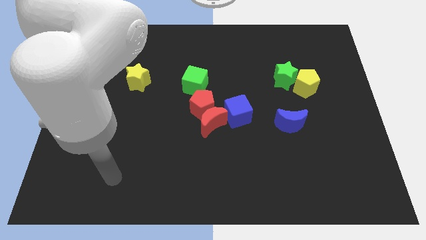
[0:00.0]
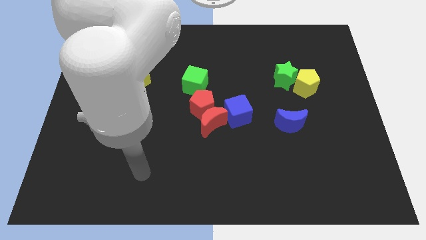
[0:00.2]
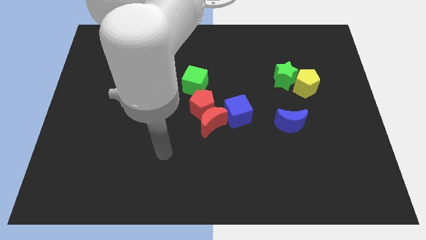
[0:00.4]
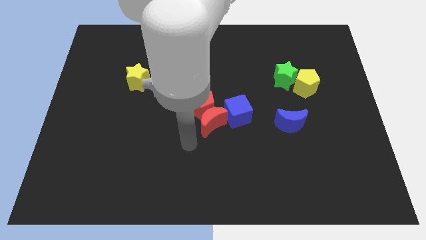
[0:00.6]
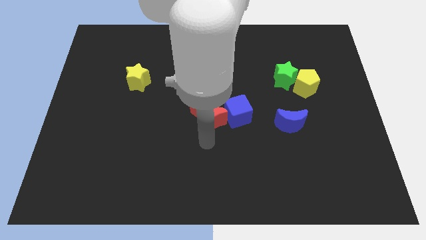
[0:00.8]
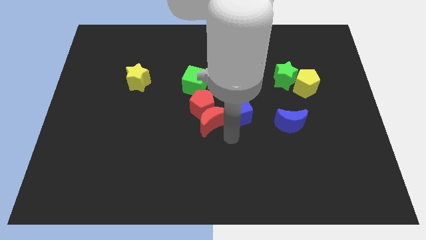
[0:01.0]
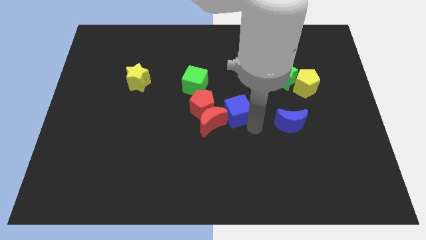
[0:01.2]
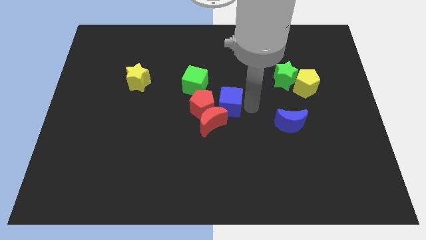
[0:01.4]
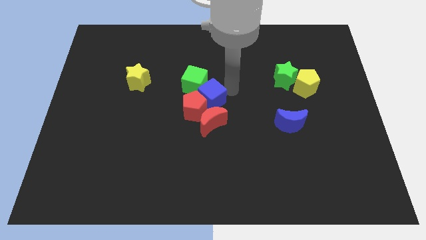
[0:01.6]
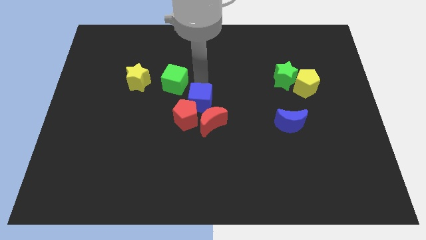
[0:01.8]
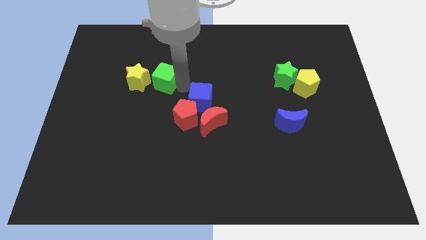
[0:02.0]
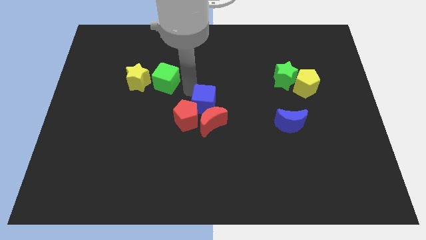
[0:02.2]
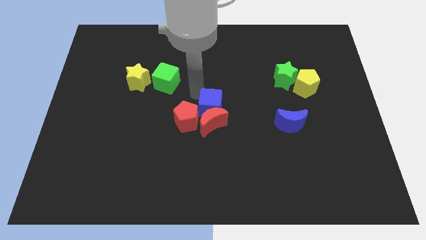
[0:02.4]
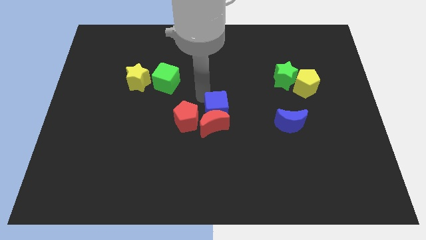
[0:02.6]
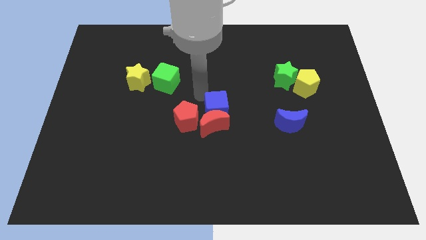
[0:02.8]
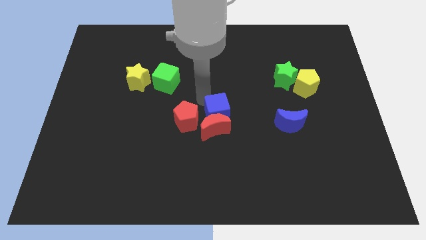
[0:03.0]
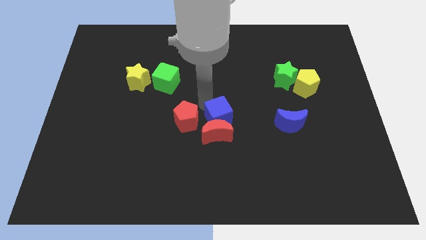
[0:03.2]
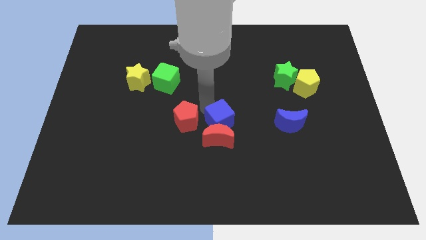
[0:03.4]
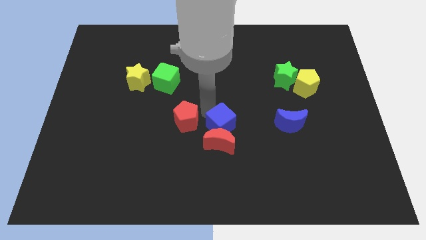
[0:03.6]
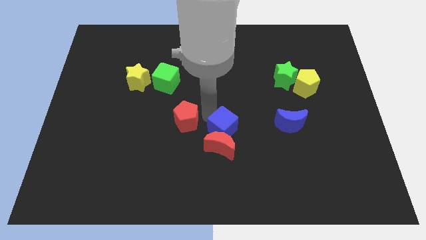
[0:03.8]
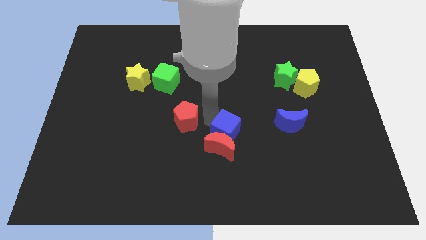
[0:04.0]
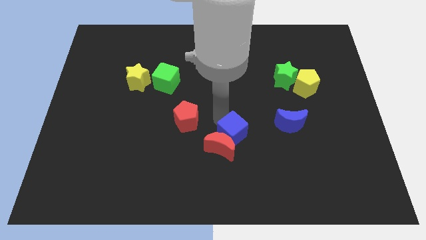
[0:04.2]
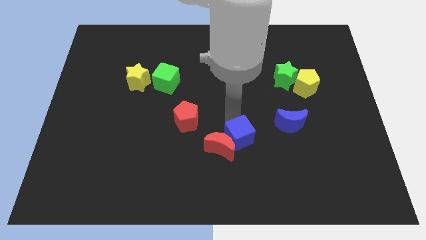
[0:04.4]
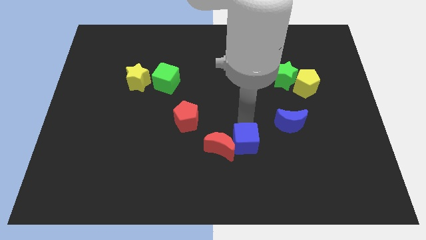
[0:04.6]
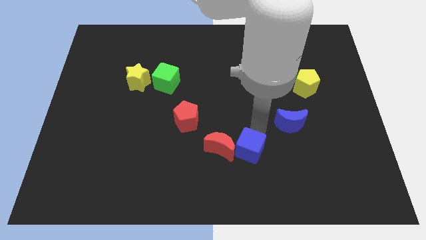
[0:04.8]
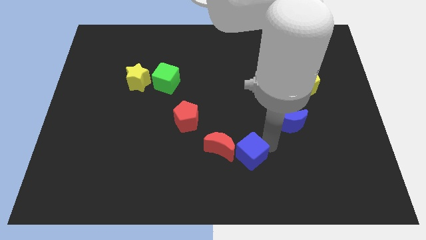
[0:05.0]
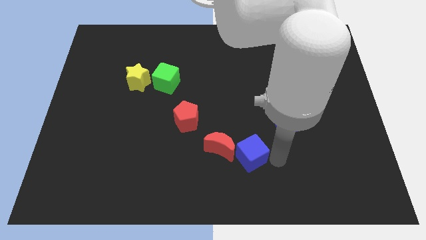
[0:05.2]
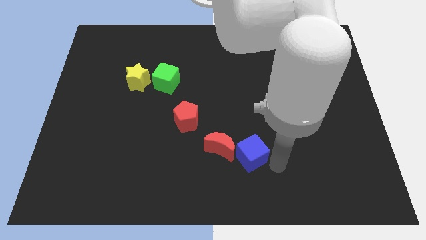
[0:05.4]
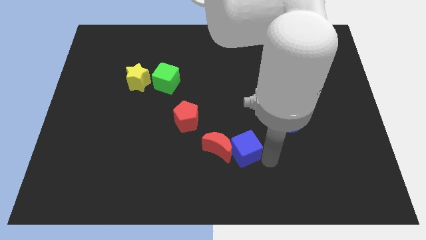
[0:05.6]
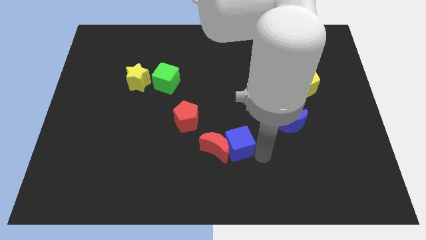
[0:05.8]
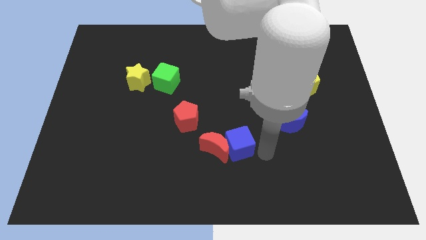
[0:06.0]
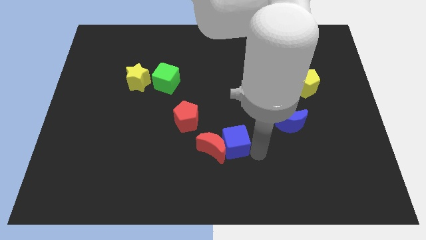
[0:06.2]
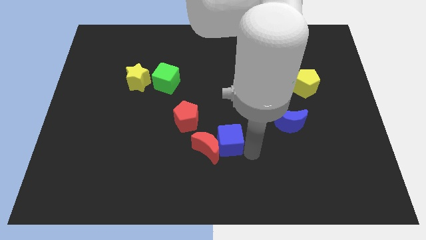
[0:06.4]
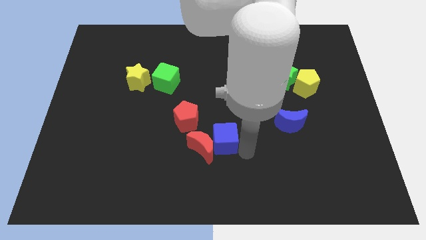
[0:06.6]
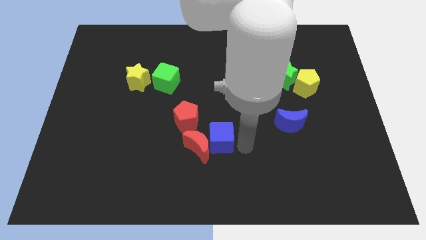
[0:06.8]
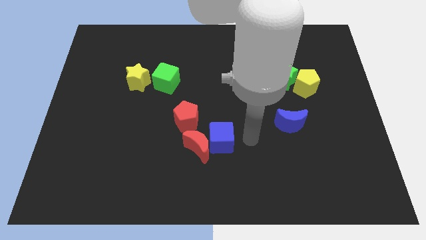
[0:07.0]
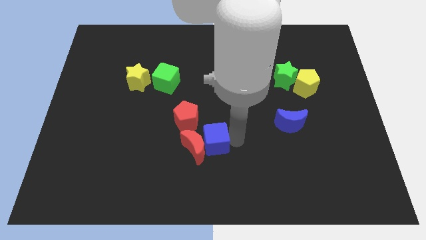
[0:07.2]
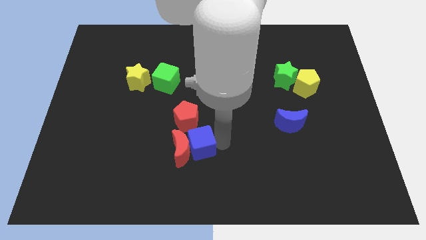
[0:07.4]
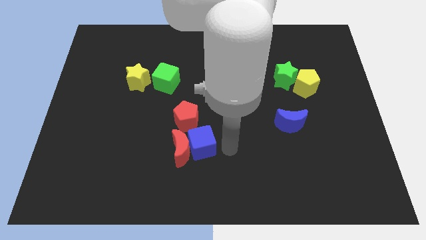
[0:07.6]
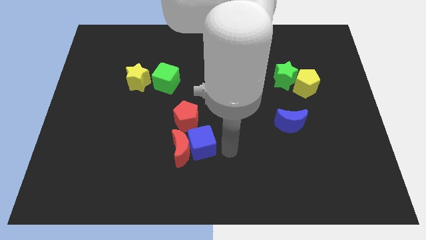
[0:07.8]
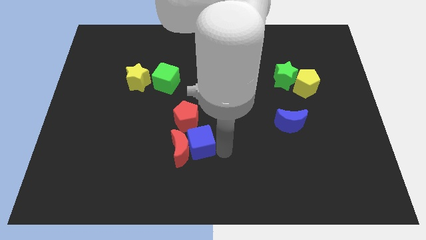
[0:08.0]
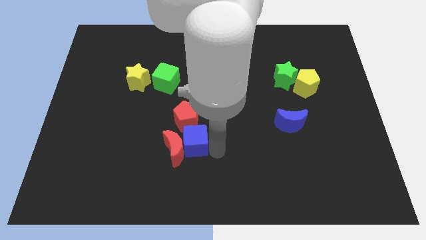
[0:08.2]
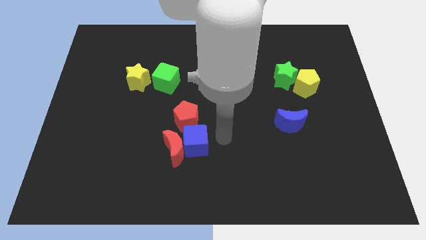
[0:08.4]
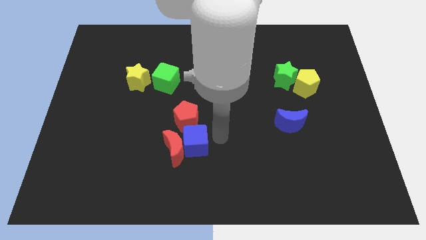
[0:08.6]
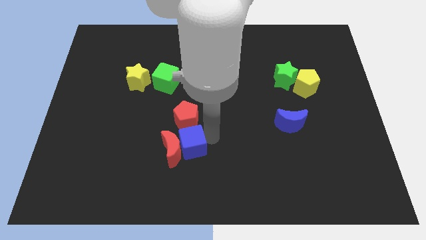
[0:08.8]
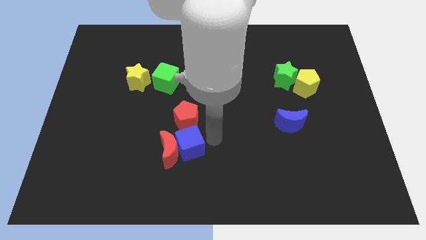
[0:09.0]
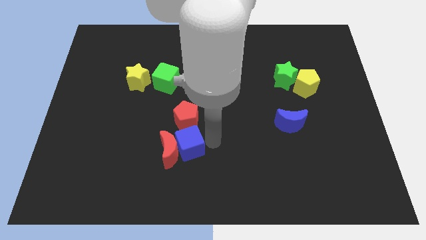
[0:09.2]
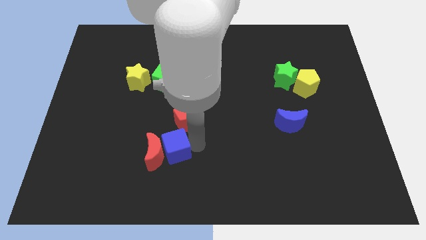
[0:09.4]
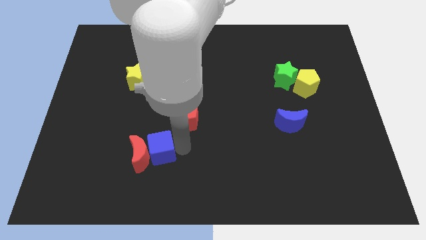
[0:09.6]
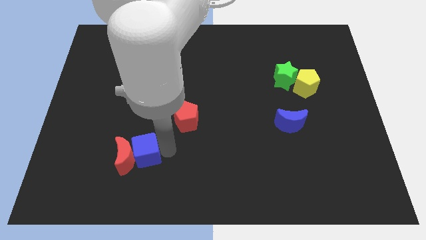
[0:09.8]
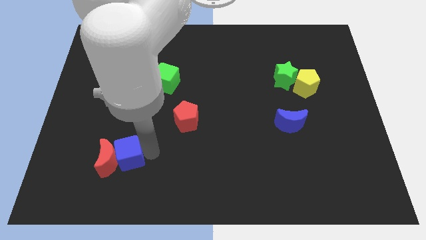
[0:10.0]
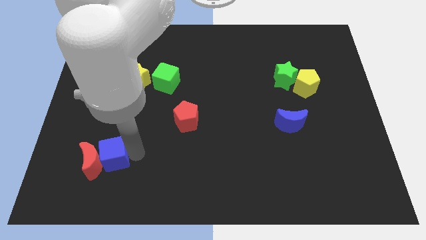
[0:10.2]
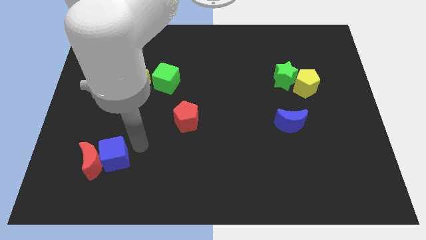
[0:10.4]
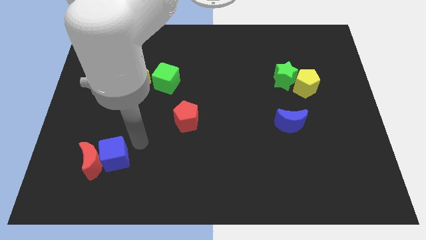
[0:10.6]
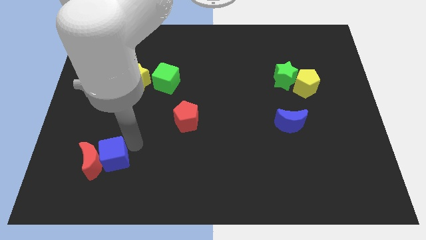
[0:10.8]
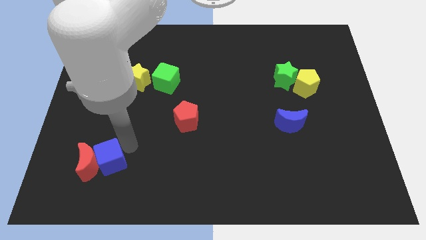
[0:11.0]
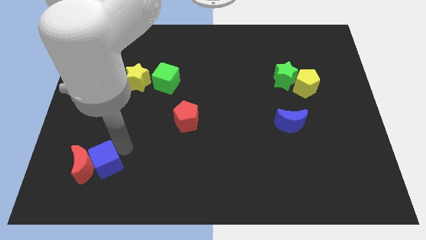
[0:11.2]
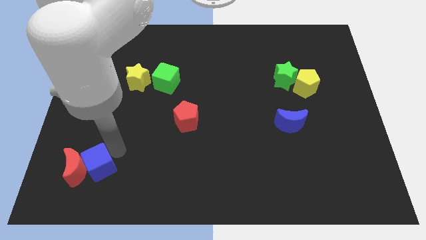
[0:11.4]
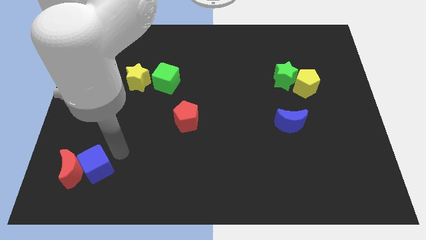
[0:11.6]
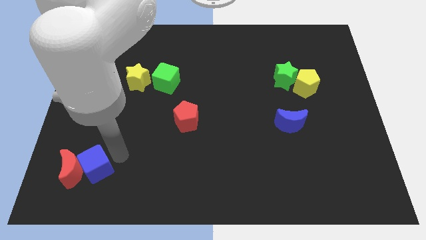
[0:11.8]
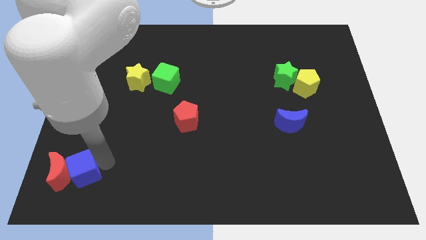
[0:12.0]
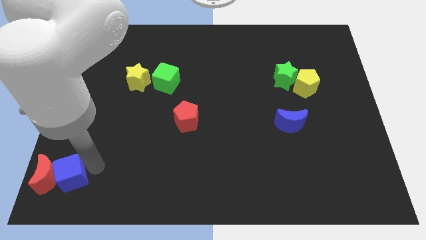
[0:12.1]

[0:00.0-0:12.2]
put the blue cube to the bottom left of the board
